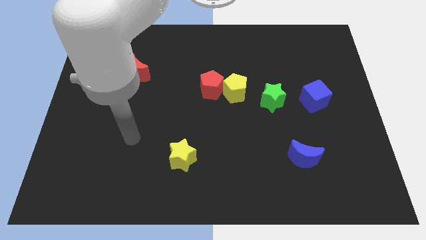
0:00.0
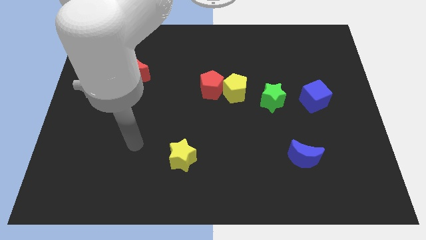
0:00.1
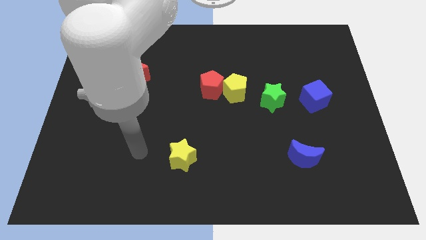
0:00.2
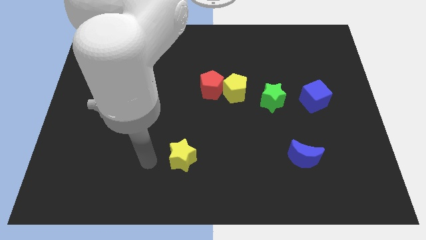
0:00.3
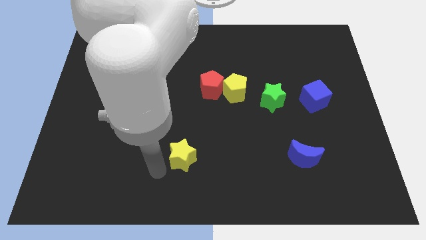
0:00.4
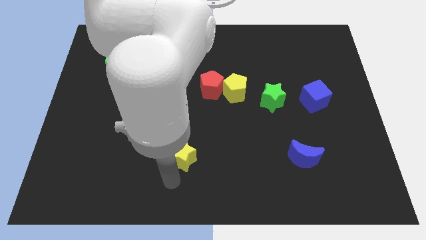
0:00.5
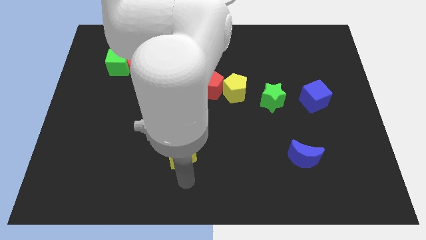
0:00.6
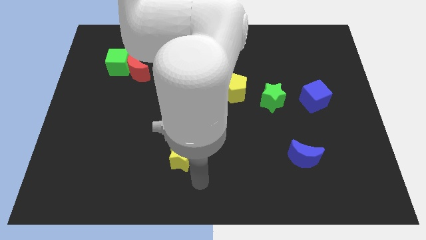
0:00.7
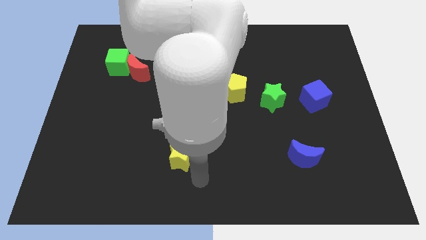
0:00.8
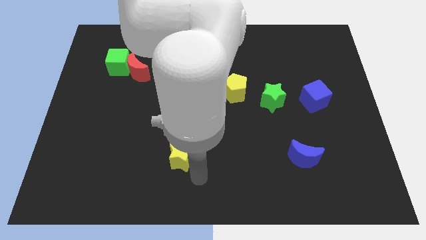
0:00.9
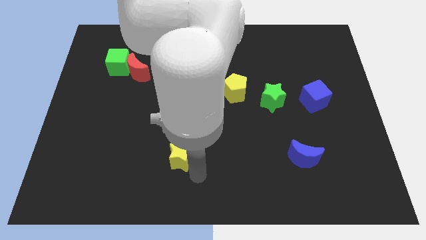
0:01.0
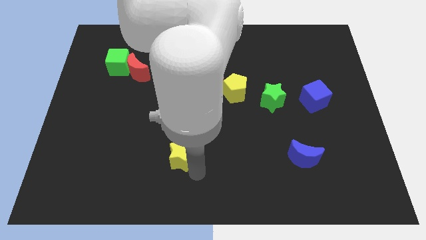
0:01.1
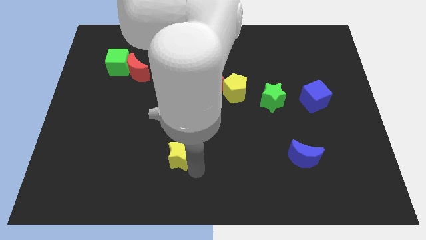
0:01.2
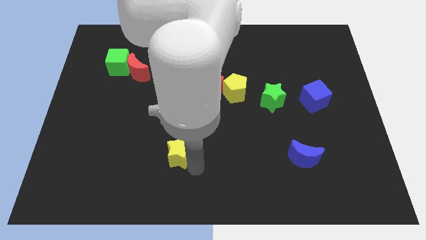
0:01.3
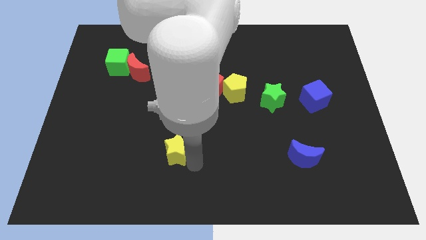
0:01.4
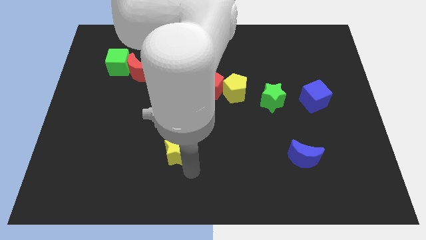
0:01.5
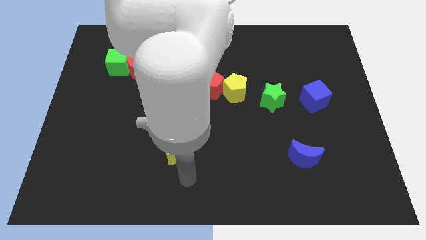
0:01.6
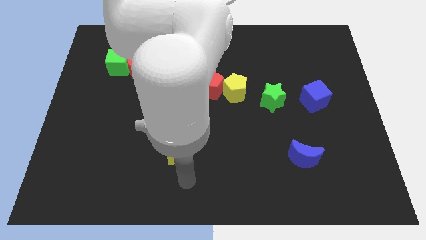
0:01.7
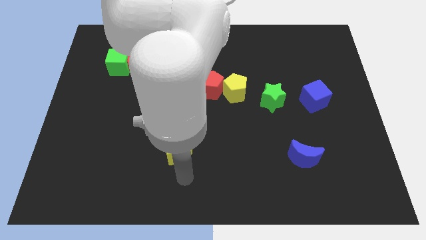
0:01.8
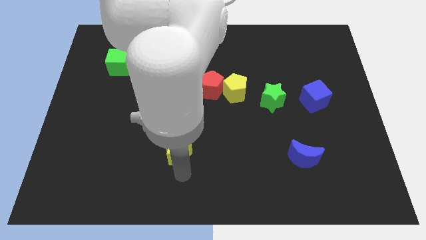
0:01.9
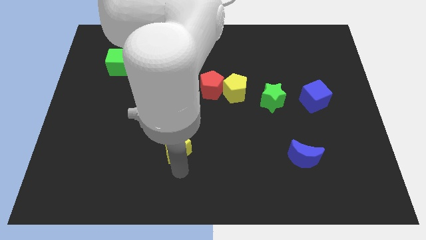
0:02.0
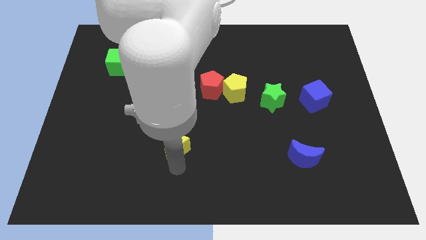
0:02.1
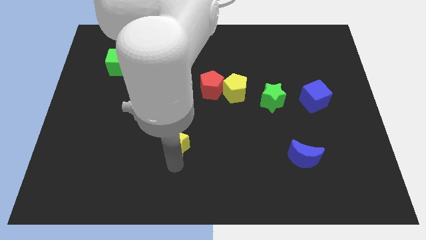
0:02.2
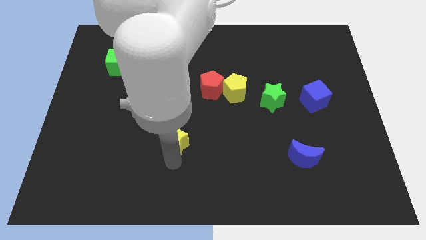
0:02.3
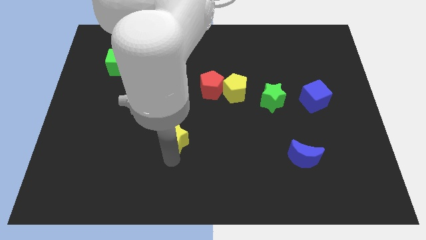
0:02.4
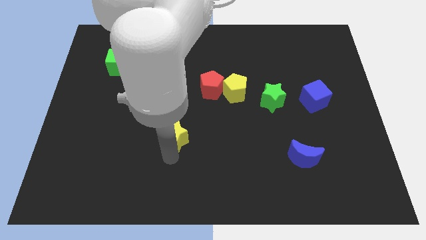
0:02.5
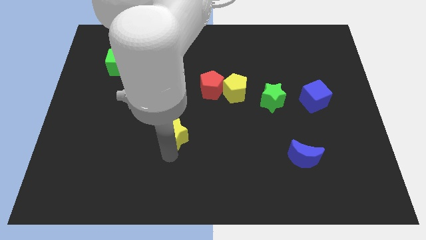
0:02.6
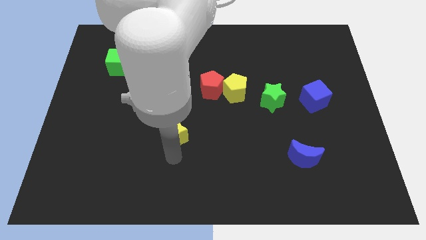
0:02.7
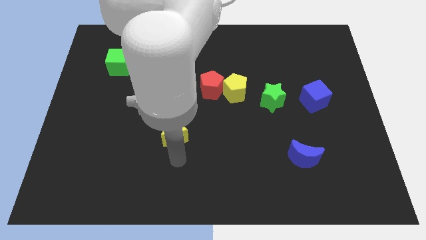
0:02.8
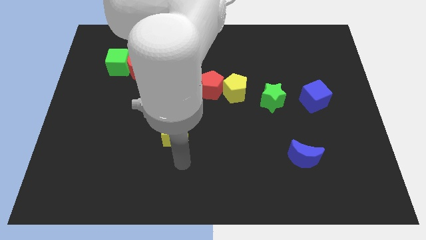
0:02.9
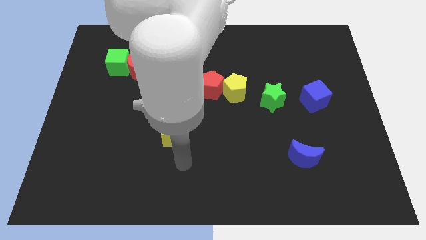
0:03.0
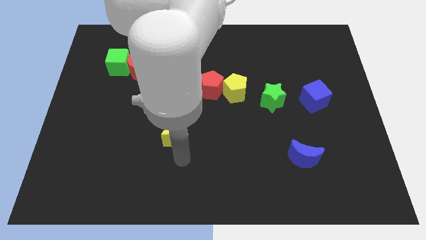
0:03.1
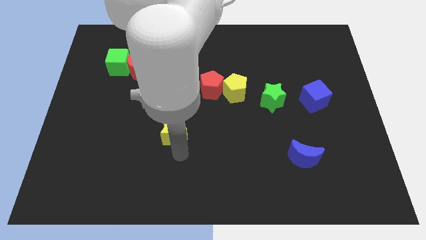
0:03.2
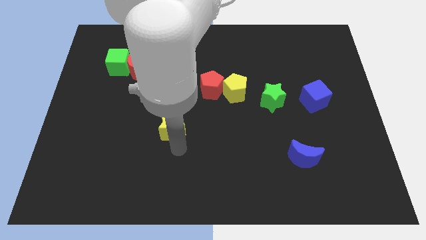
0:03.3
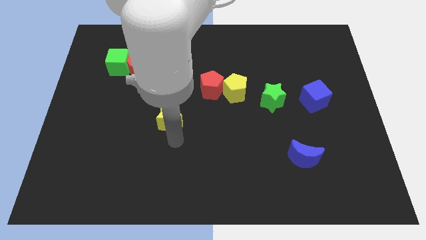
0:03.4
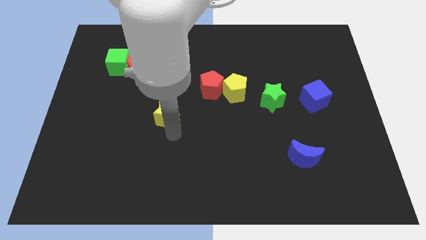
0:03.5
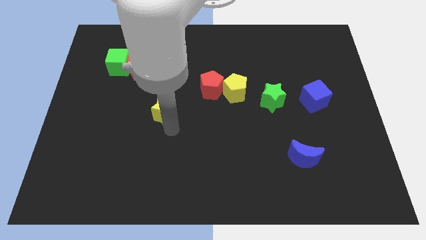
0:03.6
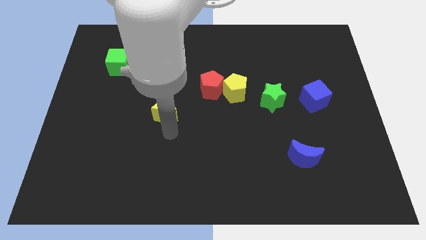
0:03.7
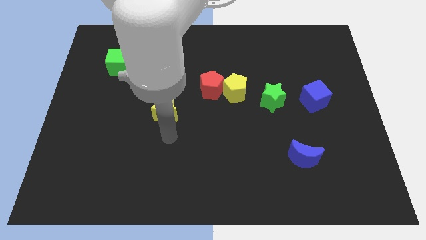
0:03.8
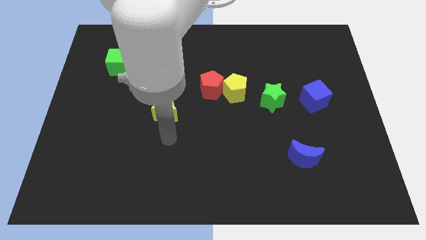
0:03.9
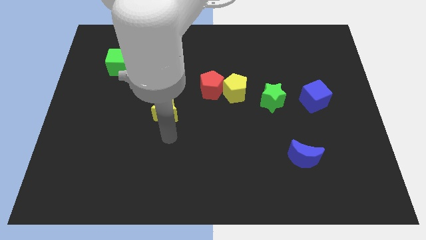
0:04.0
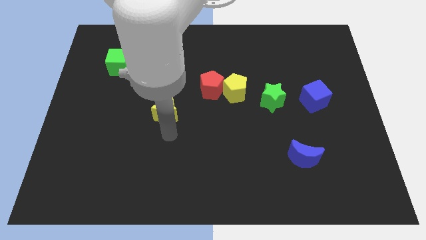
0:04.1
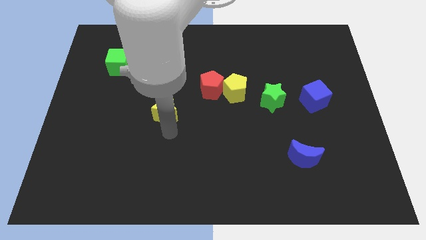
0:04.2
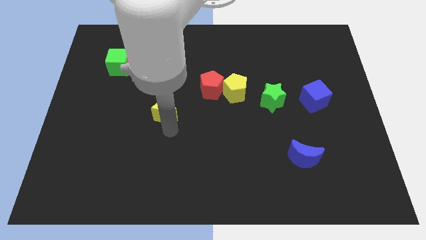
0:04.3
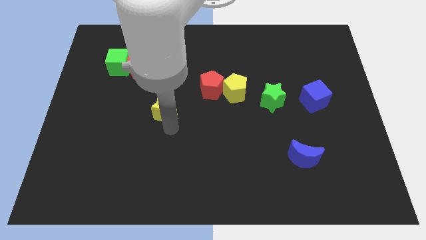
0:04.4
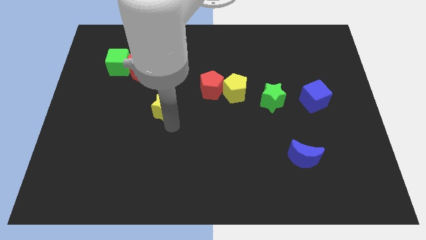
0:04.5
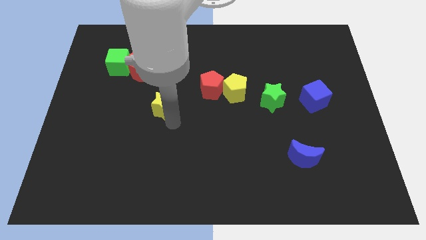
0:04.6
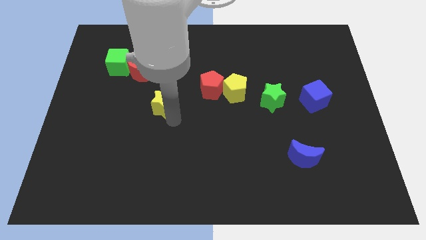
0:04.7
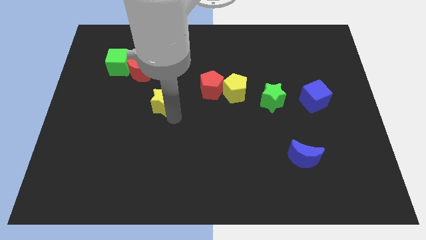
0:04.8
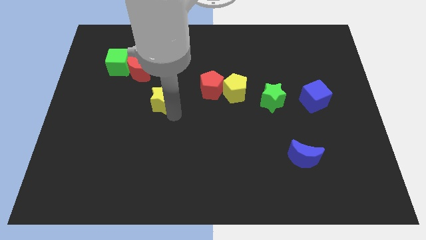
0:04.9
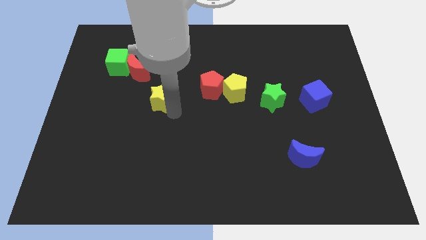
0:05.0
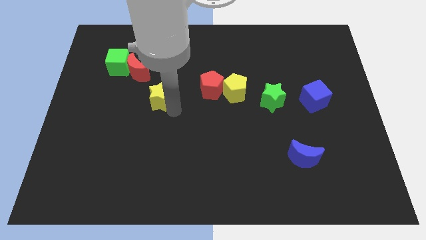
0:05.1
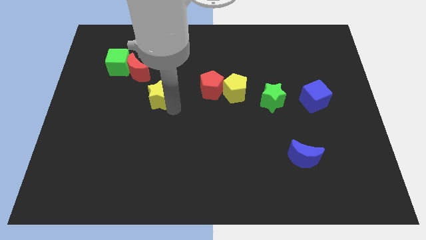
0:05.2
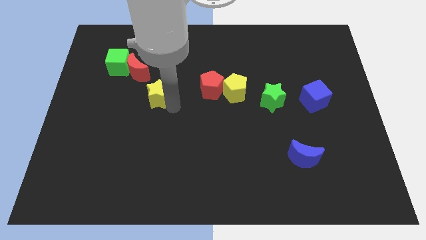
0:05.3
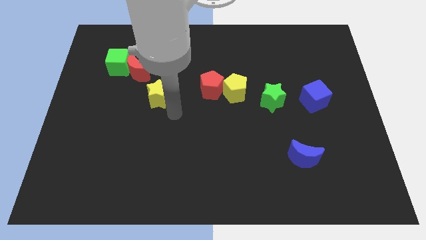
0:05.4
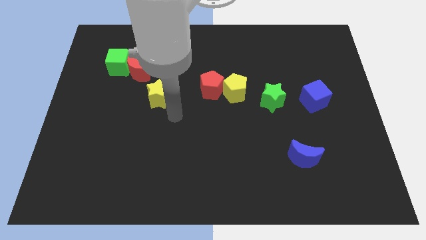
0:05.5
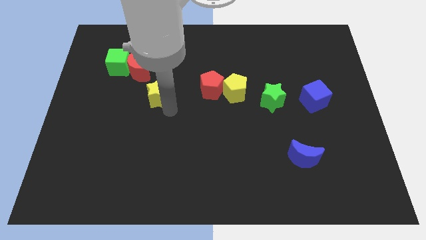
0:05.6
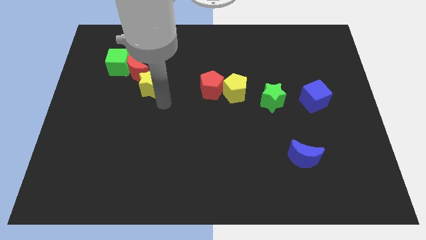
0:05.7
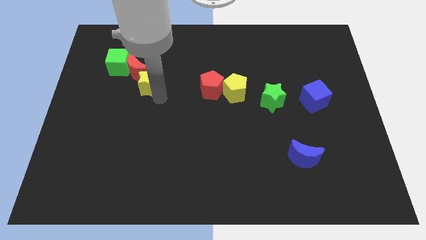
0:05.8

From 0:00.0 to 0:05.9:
move the yellow star next to the red moon

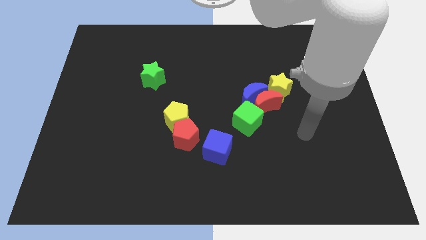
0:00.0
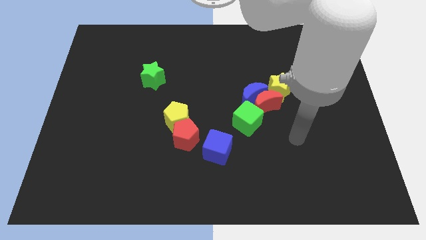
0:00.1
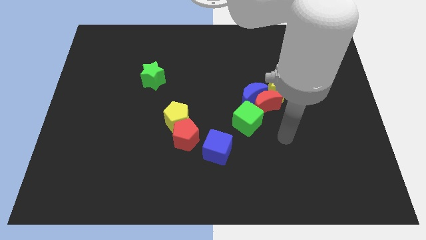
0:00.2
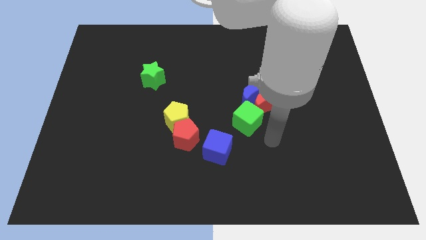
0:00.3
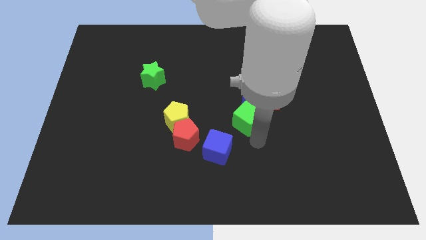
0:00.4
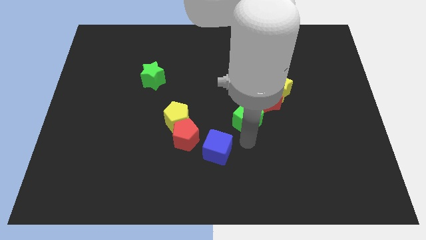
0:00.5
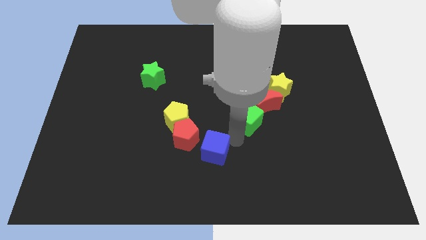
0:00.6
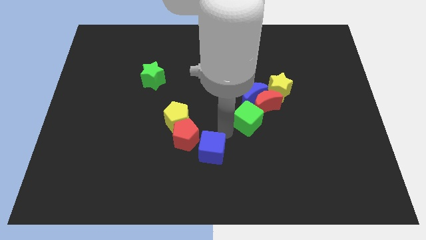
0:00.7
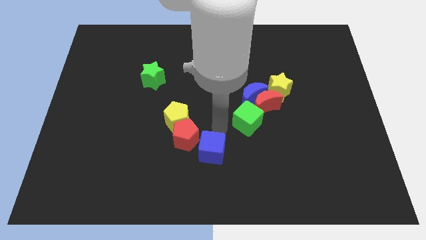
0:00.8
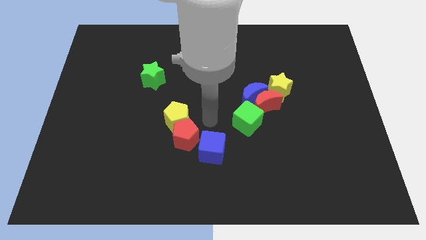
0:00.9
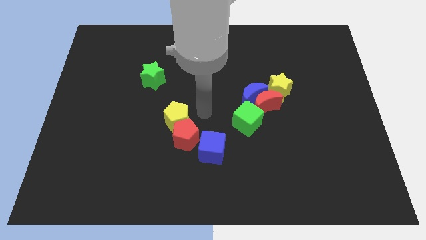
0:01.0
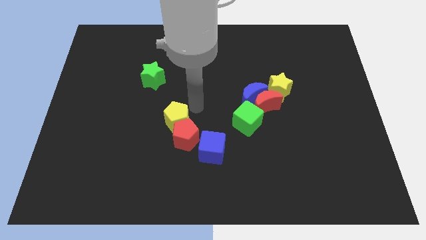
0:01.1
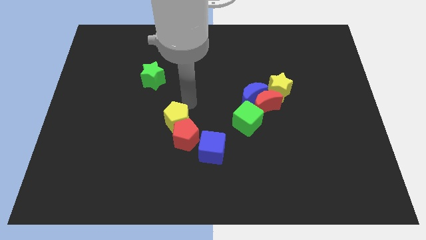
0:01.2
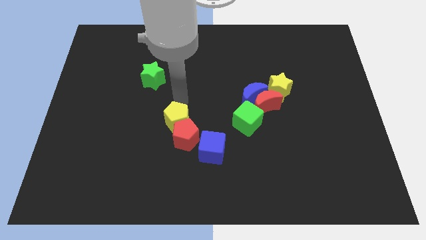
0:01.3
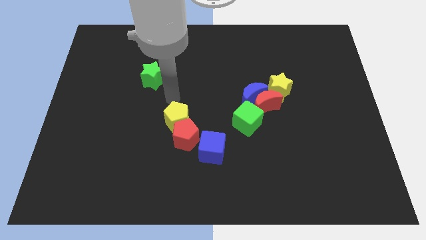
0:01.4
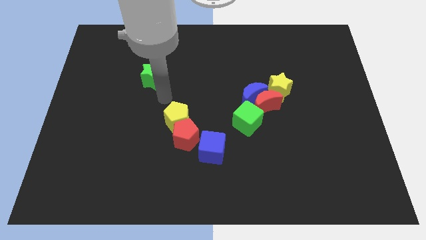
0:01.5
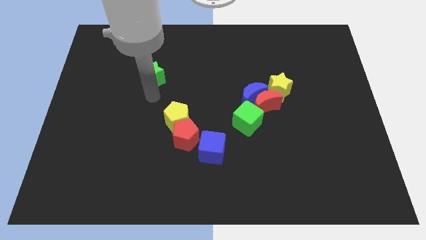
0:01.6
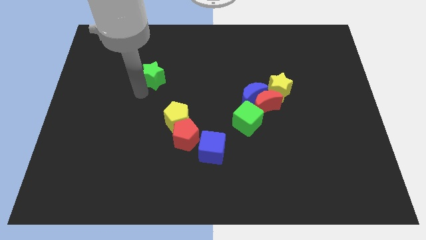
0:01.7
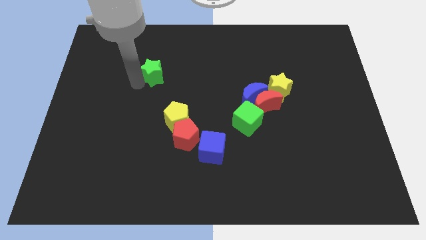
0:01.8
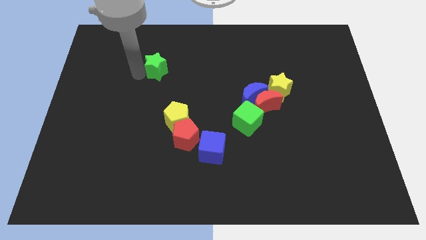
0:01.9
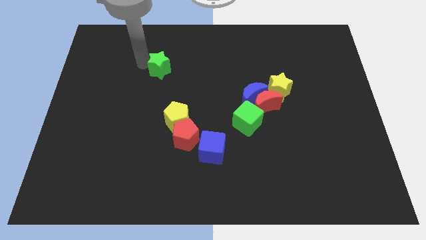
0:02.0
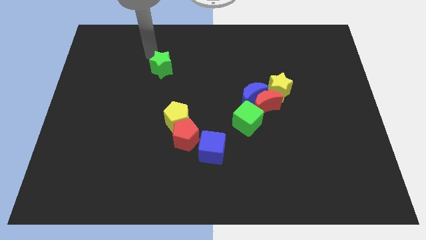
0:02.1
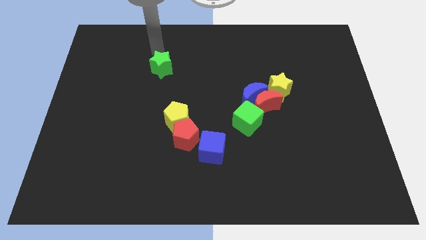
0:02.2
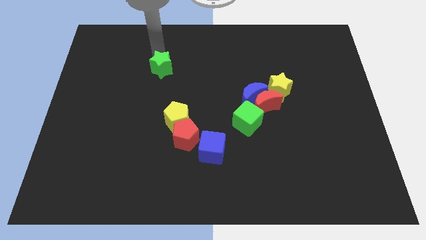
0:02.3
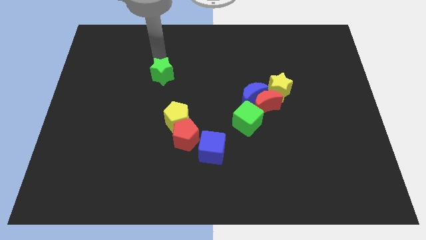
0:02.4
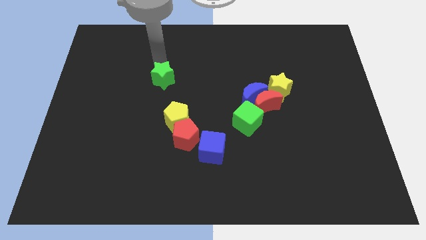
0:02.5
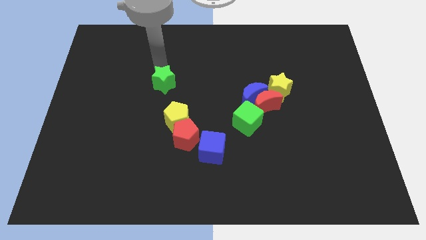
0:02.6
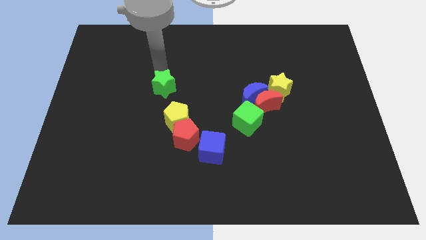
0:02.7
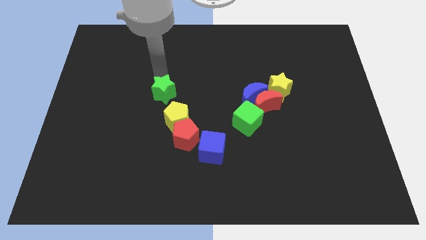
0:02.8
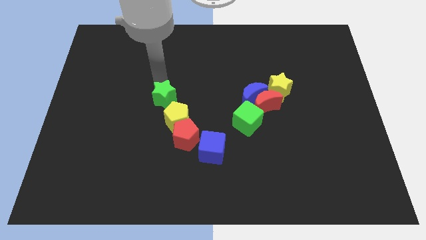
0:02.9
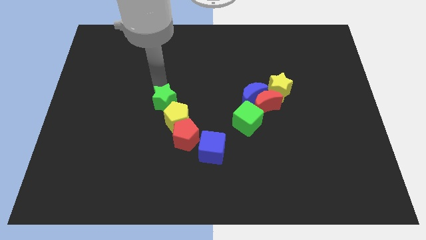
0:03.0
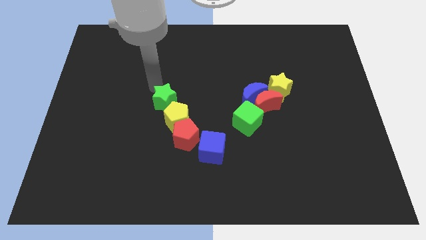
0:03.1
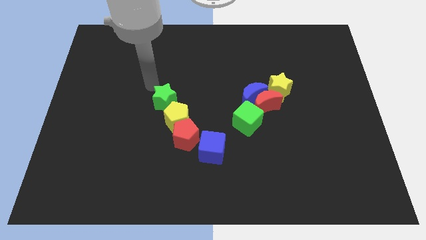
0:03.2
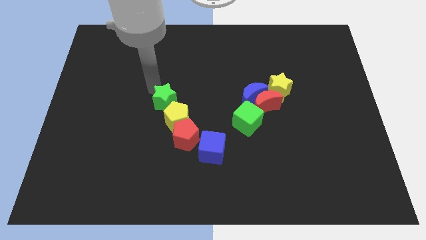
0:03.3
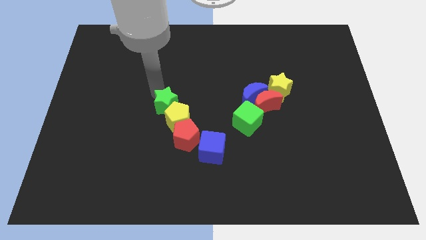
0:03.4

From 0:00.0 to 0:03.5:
put the green star towards the yellow pentagon
